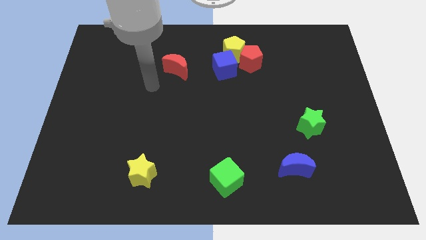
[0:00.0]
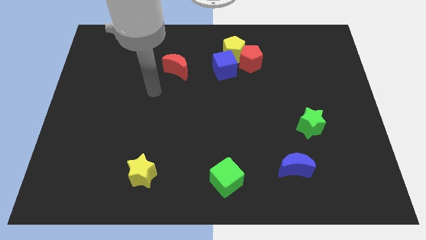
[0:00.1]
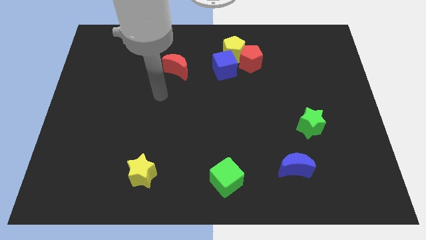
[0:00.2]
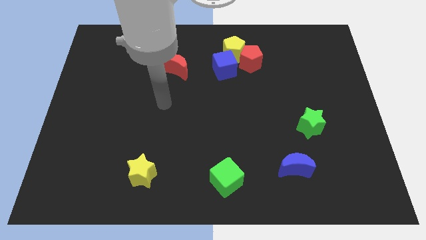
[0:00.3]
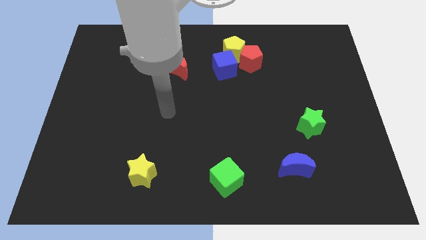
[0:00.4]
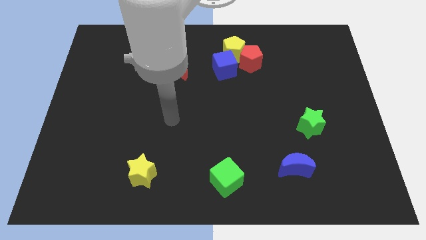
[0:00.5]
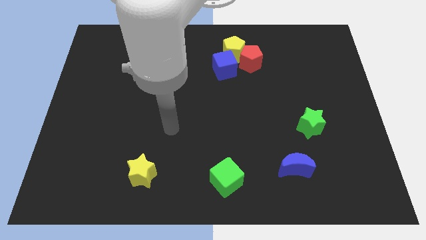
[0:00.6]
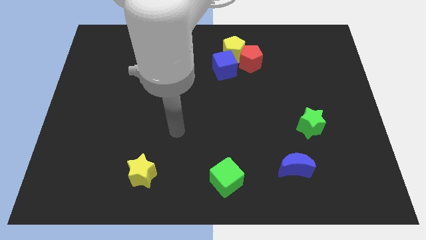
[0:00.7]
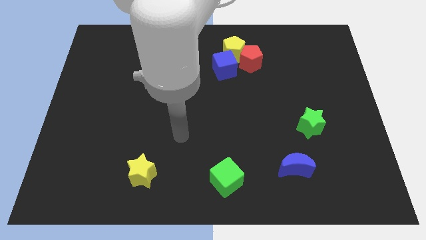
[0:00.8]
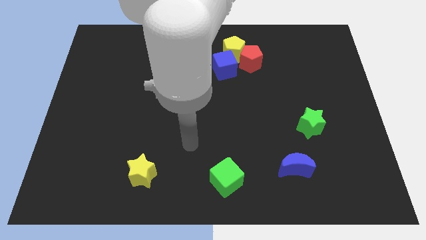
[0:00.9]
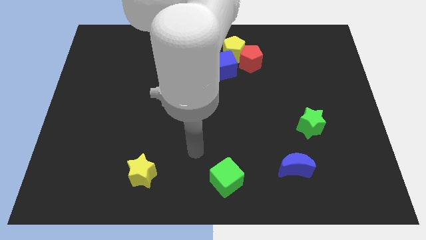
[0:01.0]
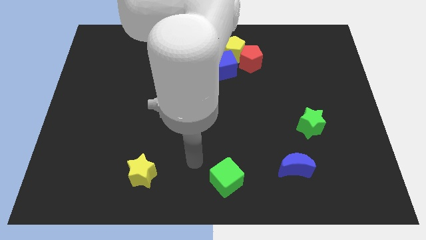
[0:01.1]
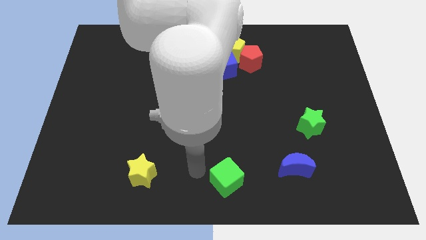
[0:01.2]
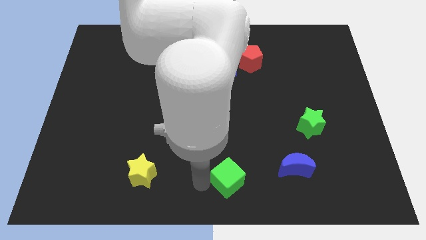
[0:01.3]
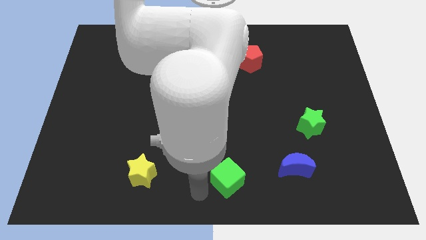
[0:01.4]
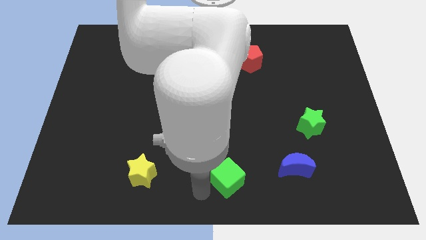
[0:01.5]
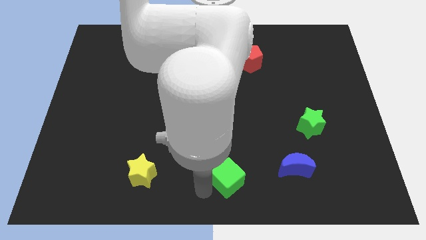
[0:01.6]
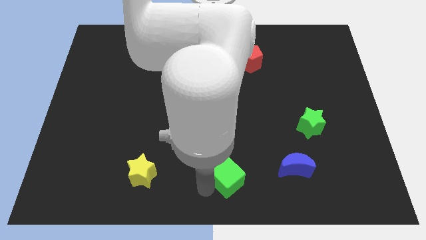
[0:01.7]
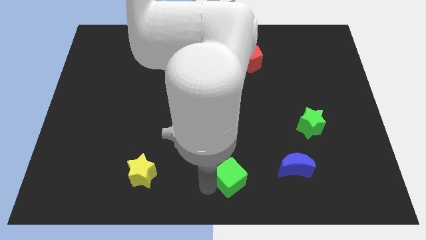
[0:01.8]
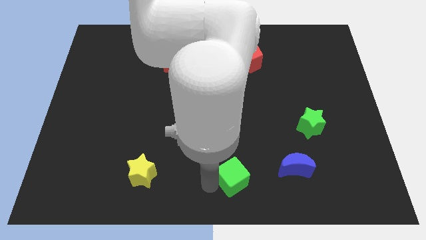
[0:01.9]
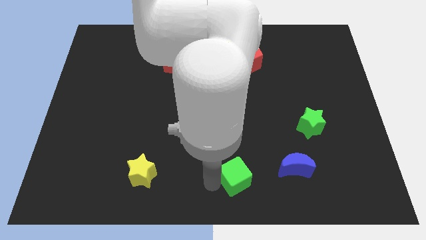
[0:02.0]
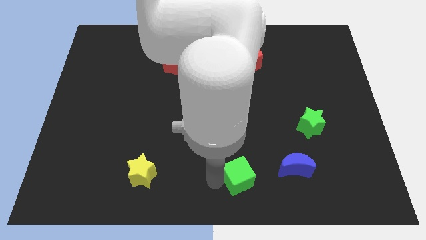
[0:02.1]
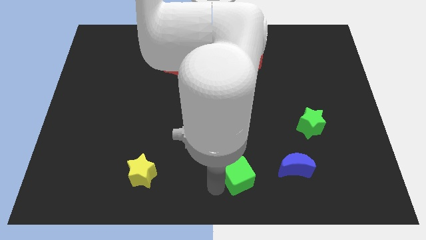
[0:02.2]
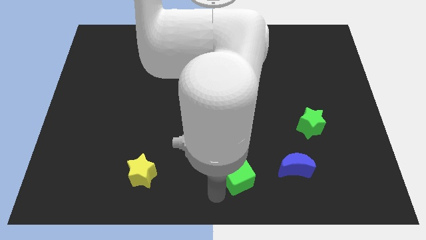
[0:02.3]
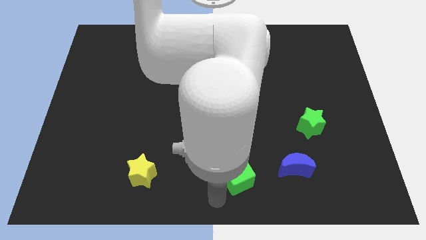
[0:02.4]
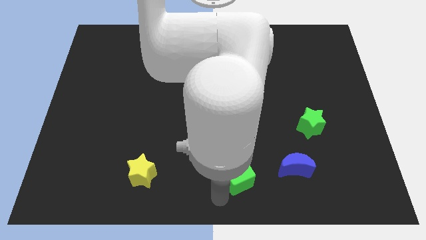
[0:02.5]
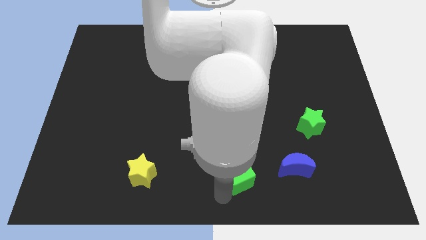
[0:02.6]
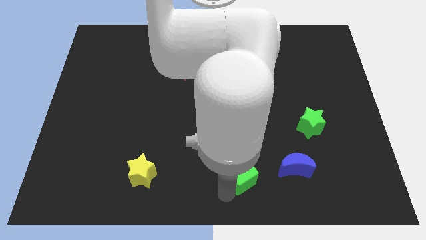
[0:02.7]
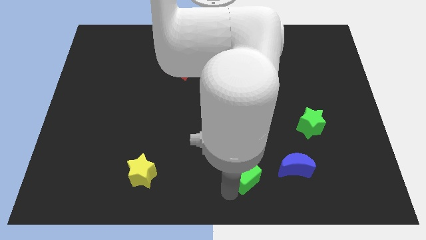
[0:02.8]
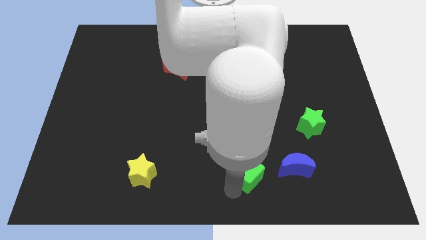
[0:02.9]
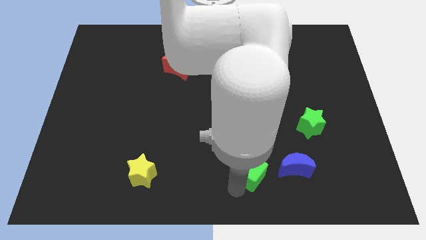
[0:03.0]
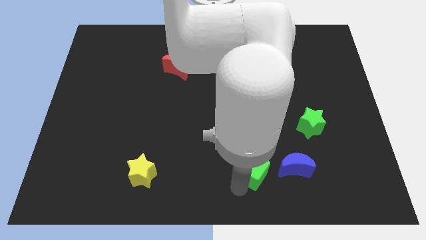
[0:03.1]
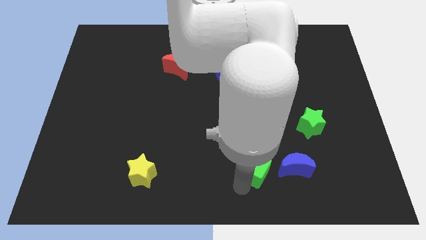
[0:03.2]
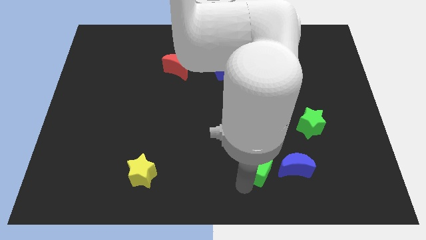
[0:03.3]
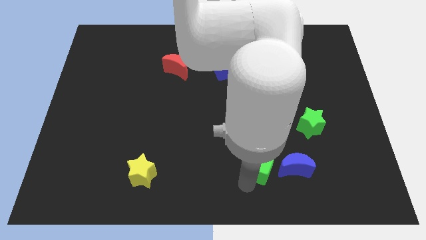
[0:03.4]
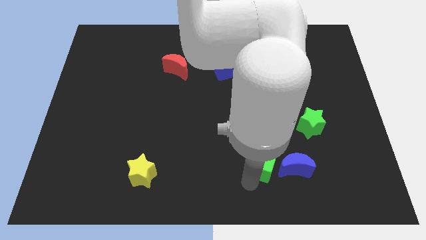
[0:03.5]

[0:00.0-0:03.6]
move the green cube upwards and right diagonally slightly

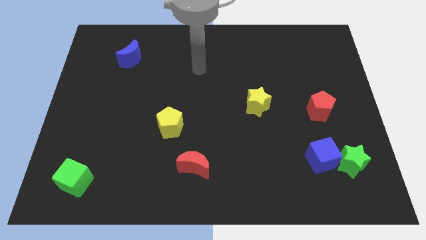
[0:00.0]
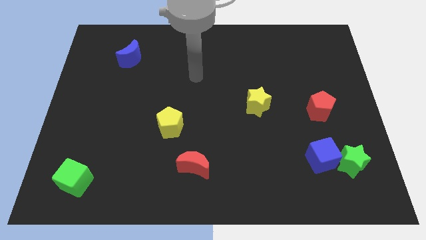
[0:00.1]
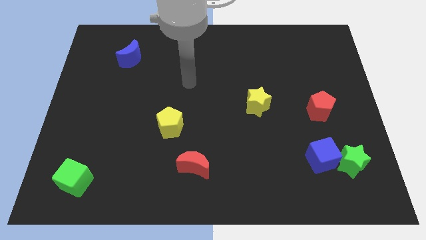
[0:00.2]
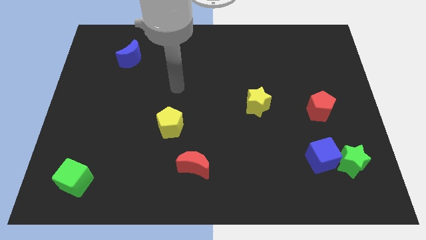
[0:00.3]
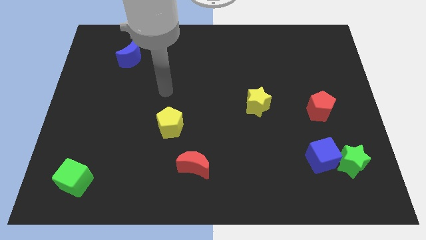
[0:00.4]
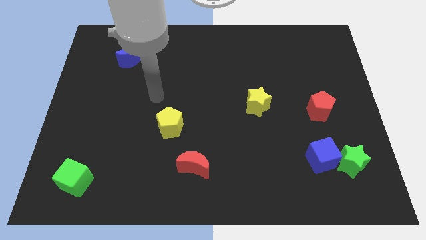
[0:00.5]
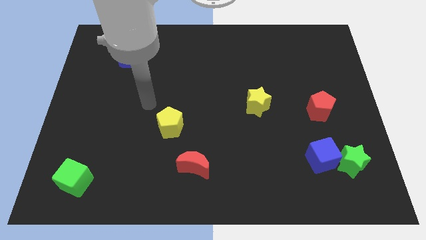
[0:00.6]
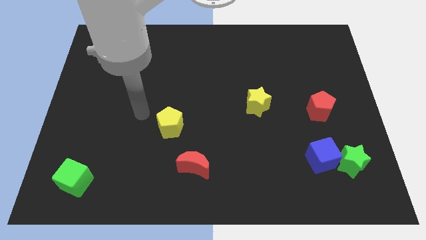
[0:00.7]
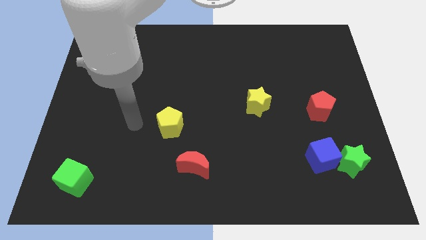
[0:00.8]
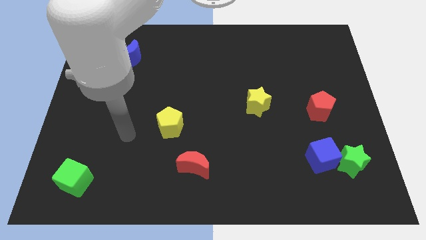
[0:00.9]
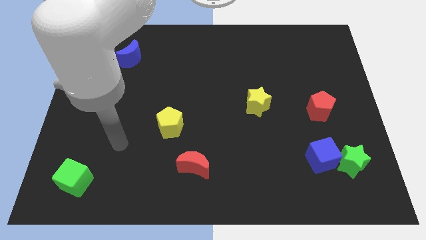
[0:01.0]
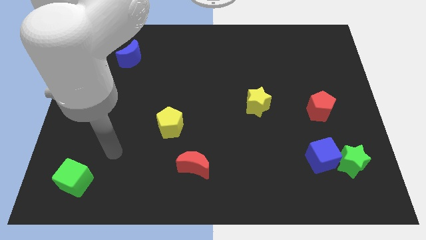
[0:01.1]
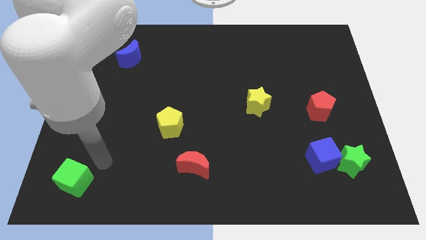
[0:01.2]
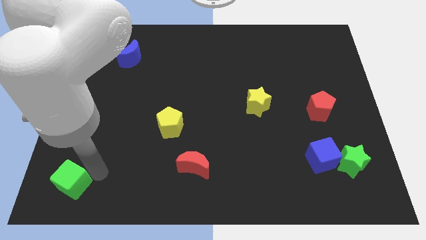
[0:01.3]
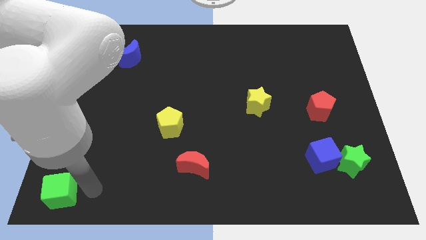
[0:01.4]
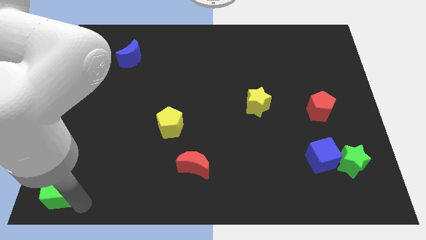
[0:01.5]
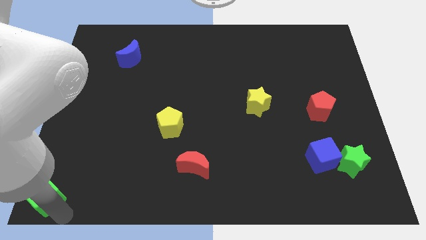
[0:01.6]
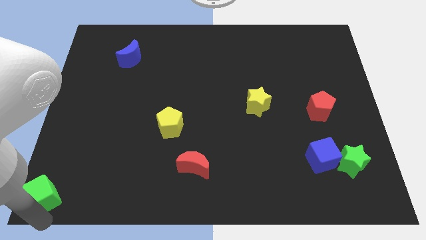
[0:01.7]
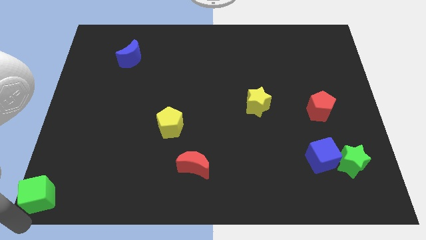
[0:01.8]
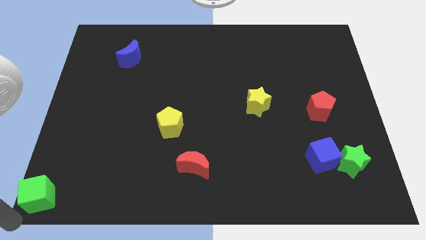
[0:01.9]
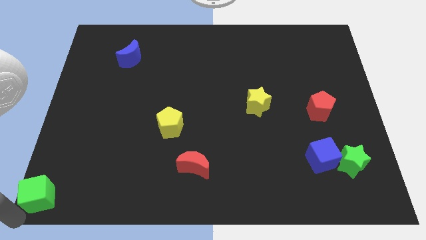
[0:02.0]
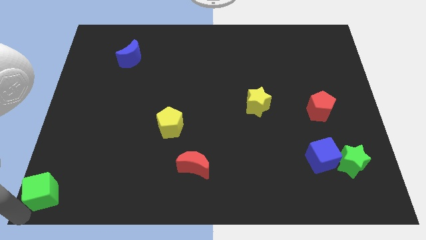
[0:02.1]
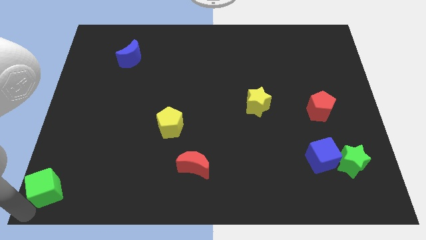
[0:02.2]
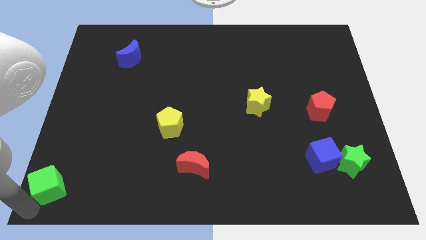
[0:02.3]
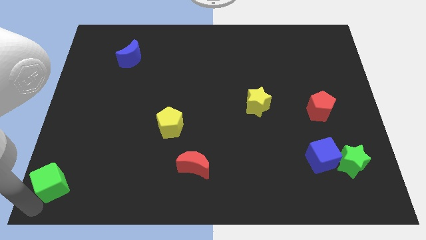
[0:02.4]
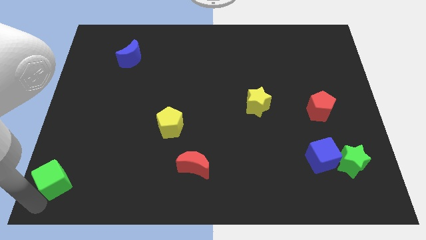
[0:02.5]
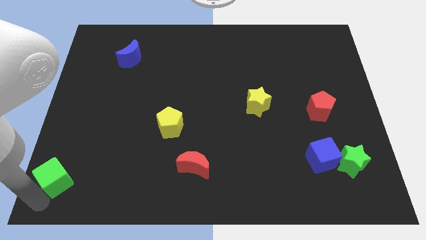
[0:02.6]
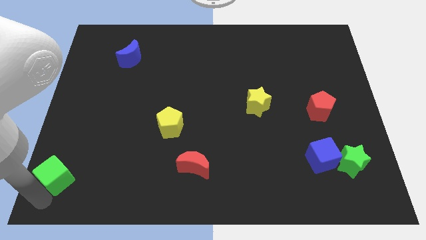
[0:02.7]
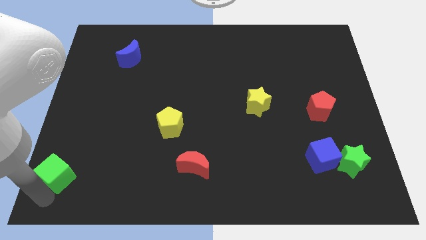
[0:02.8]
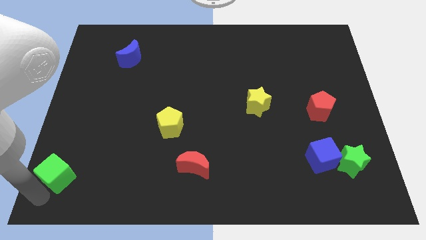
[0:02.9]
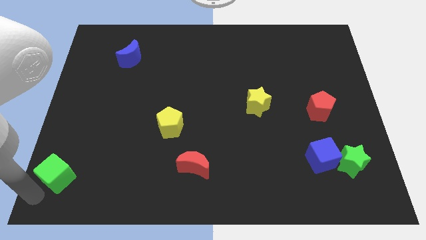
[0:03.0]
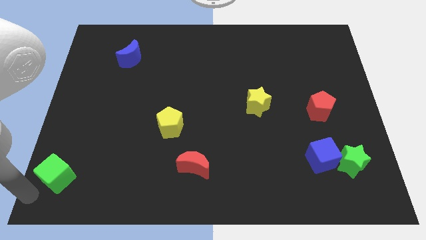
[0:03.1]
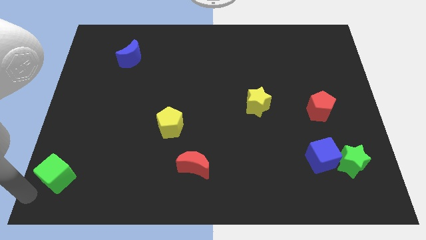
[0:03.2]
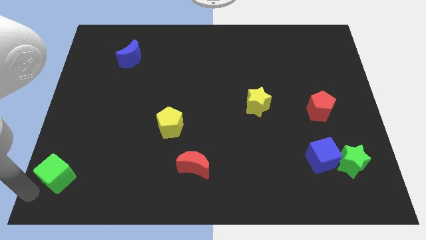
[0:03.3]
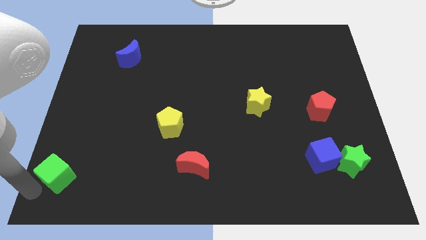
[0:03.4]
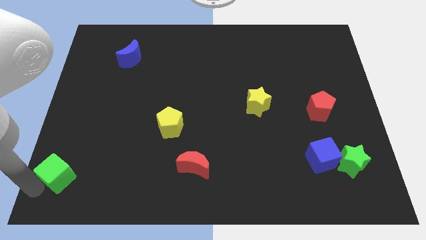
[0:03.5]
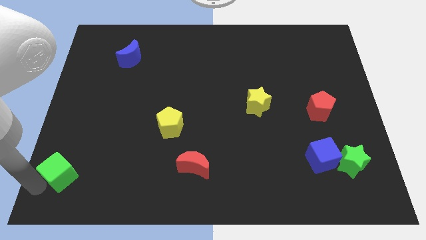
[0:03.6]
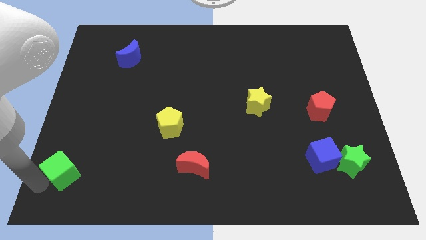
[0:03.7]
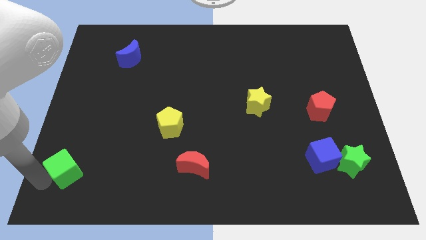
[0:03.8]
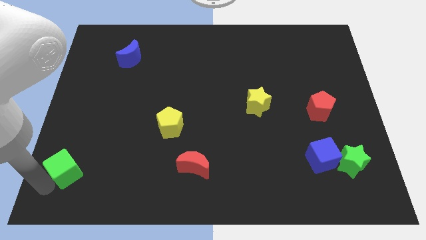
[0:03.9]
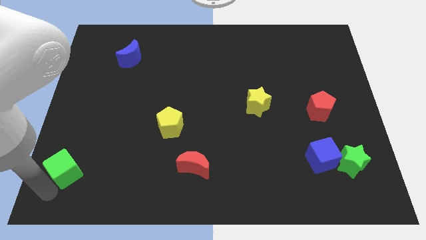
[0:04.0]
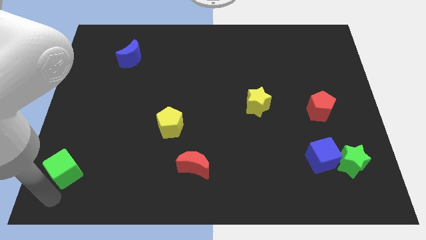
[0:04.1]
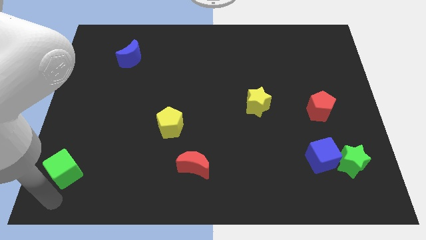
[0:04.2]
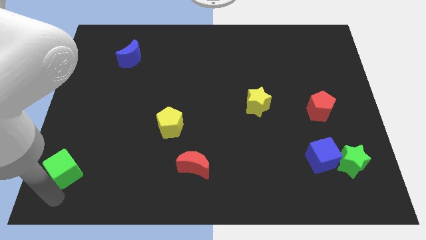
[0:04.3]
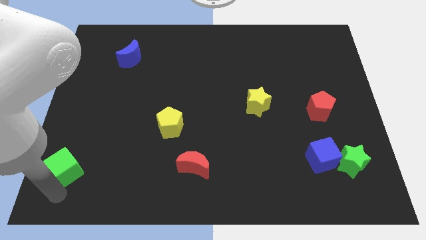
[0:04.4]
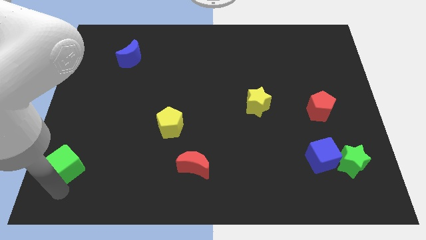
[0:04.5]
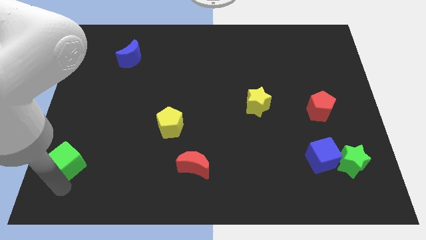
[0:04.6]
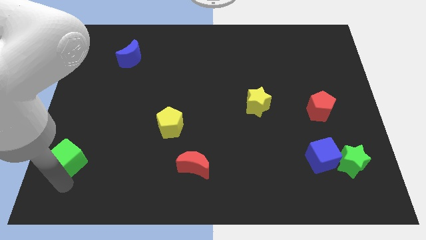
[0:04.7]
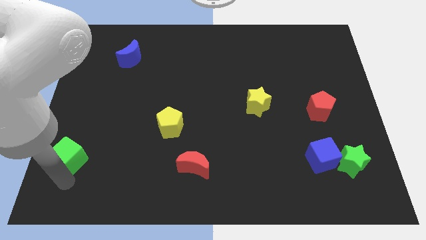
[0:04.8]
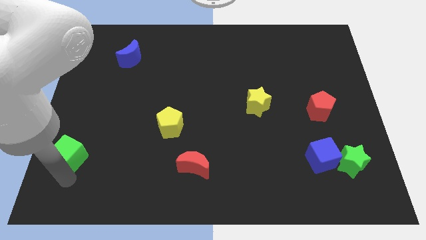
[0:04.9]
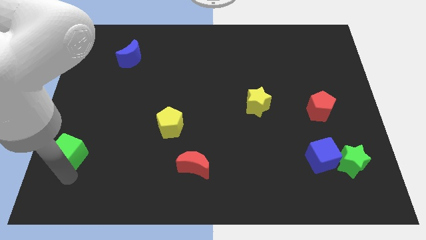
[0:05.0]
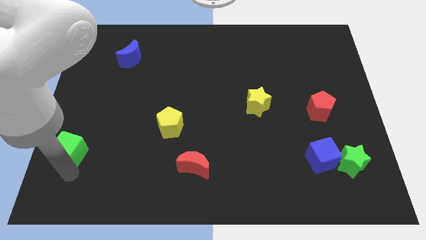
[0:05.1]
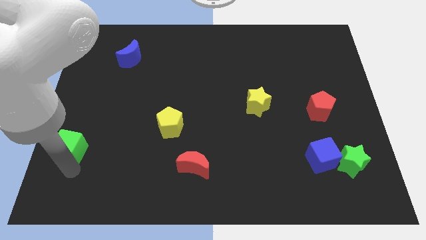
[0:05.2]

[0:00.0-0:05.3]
slightly move the green cube up
